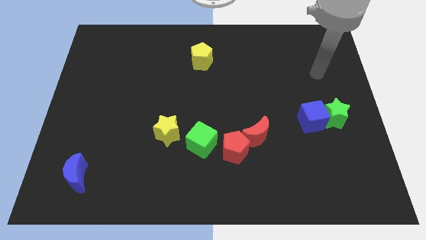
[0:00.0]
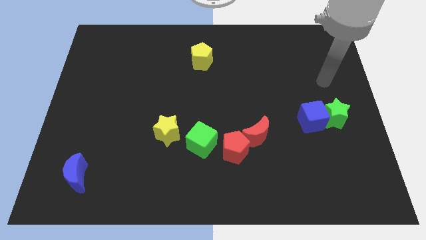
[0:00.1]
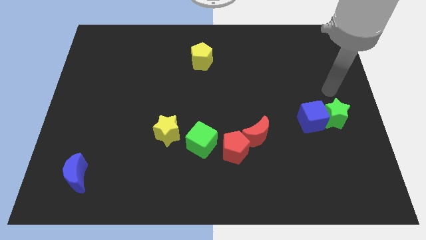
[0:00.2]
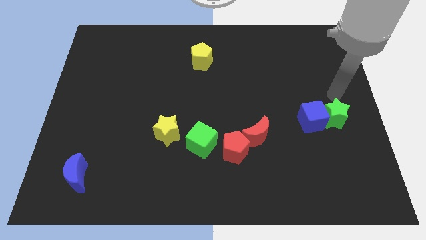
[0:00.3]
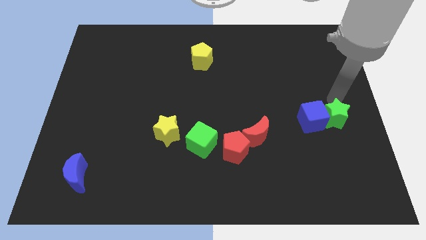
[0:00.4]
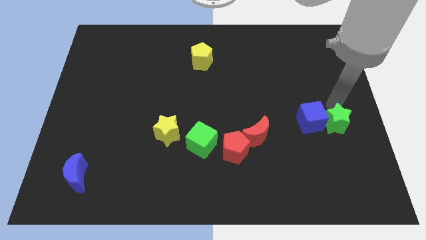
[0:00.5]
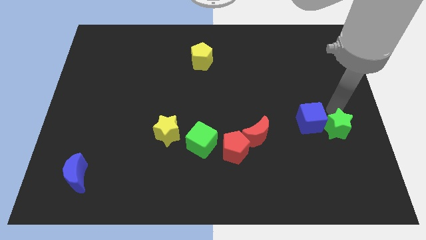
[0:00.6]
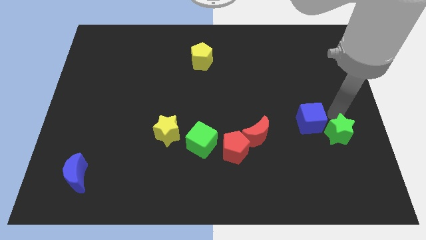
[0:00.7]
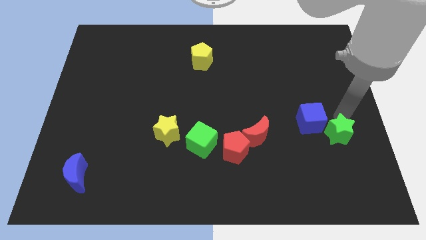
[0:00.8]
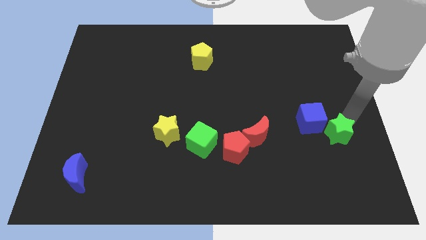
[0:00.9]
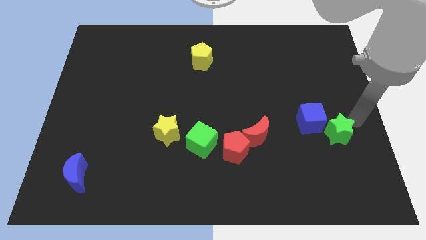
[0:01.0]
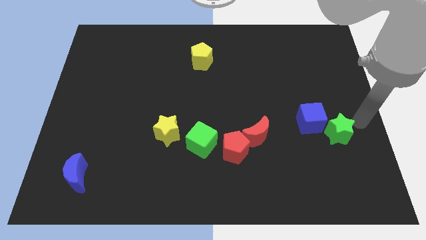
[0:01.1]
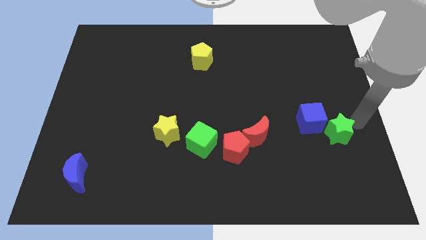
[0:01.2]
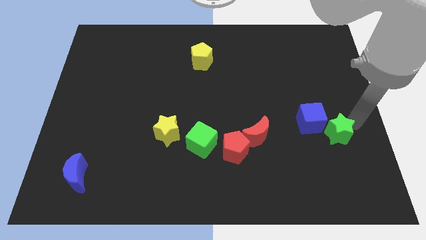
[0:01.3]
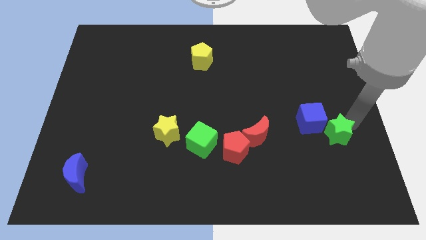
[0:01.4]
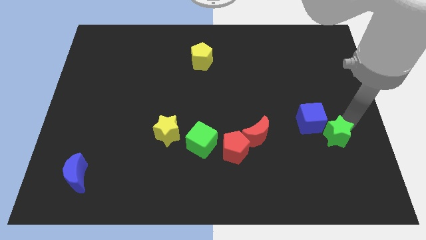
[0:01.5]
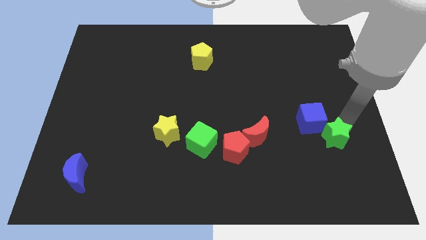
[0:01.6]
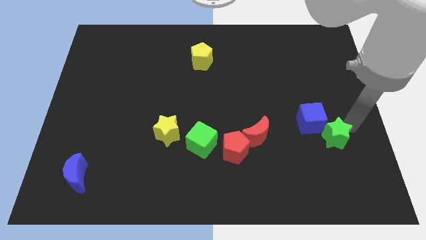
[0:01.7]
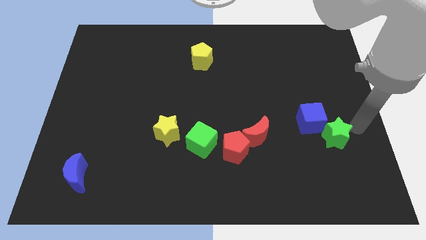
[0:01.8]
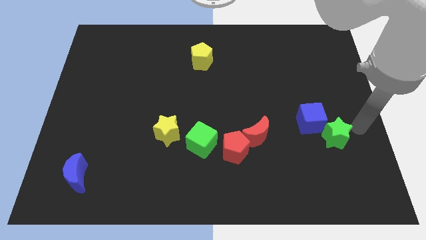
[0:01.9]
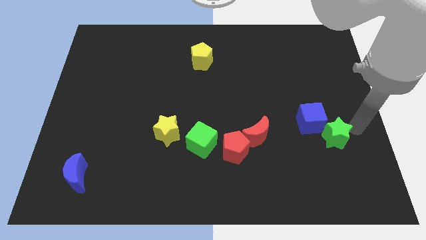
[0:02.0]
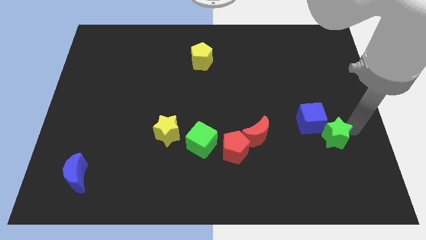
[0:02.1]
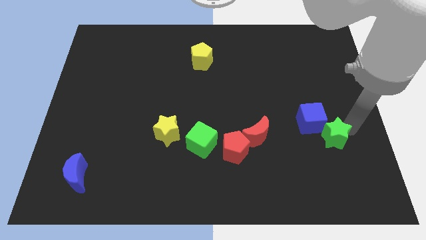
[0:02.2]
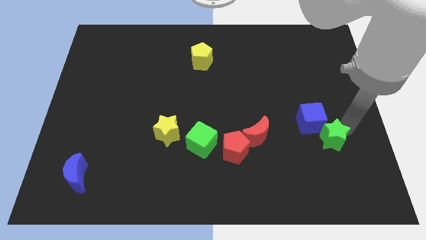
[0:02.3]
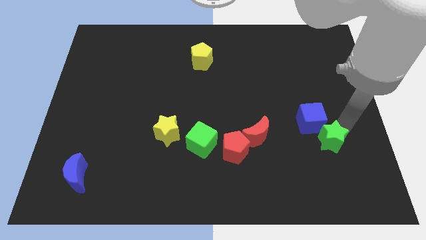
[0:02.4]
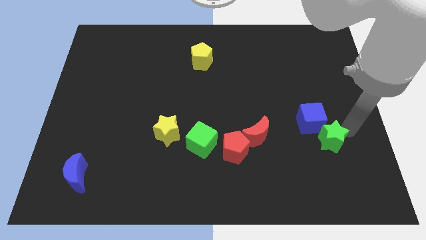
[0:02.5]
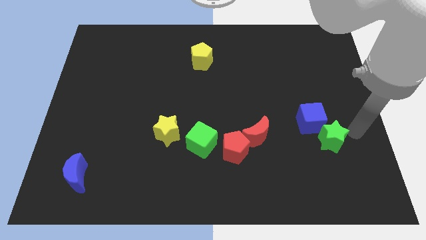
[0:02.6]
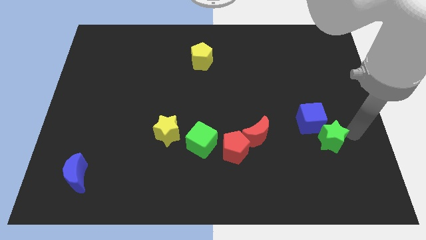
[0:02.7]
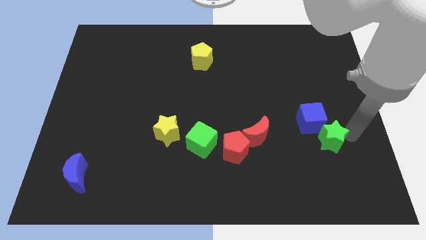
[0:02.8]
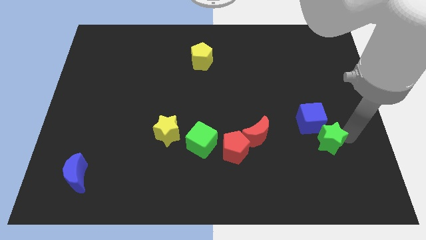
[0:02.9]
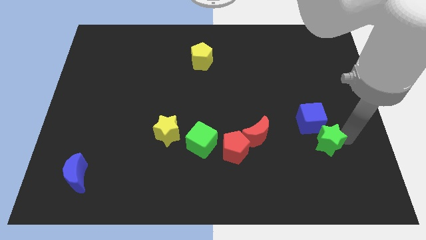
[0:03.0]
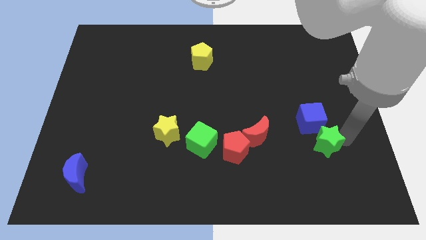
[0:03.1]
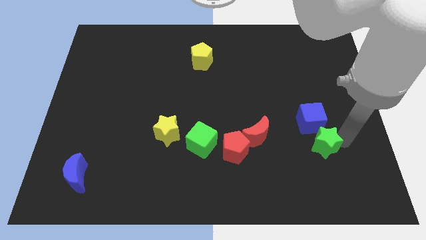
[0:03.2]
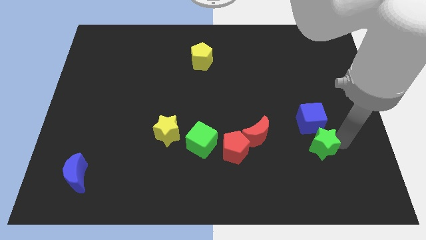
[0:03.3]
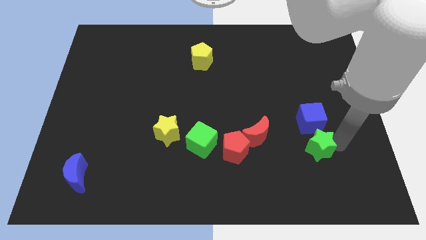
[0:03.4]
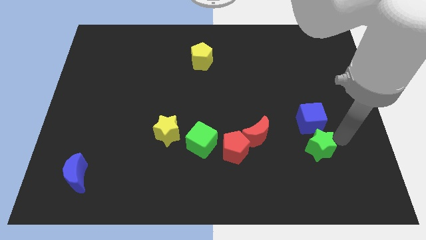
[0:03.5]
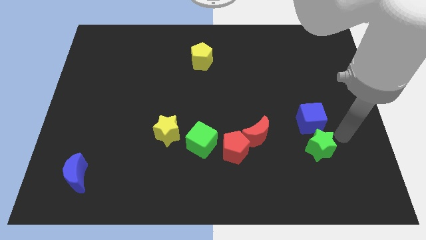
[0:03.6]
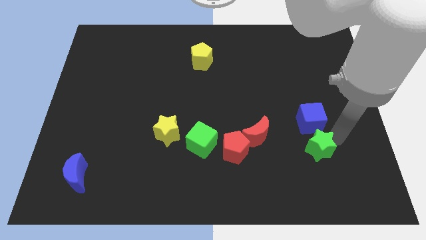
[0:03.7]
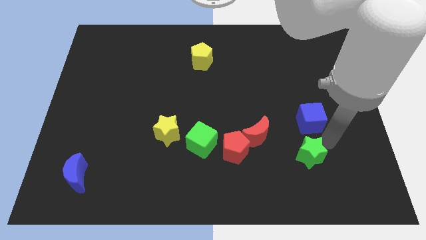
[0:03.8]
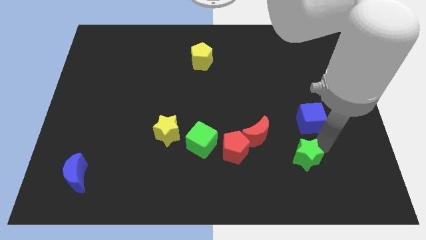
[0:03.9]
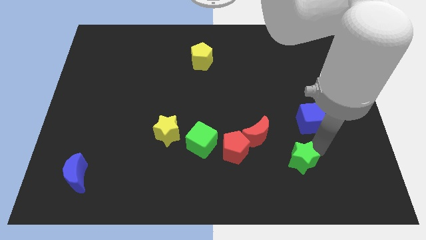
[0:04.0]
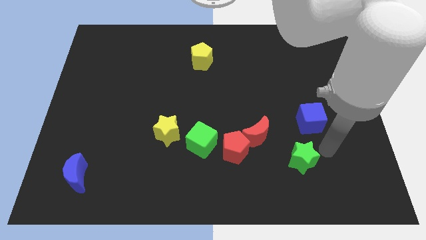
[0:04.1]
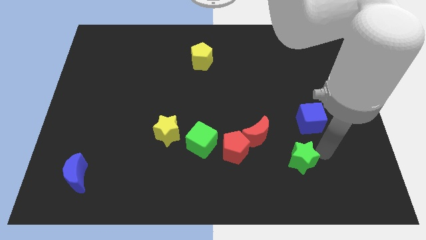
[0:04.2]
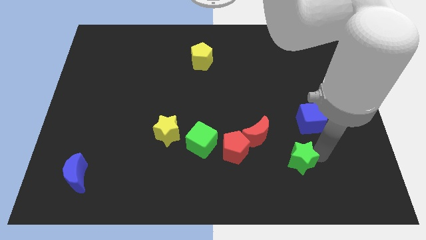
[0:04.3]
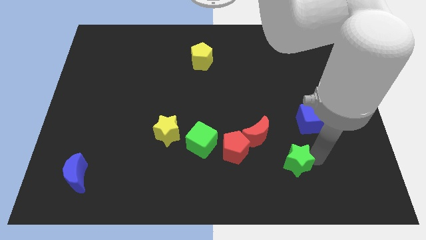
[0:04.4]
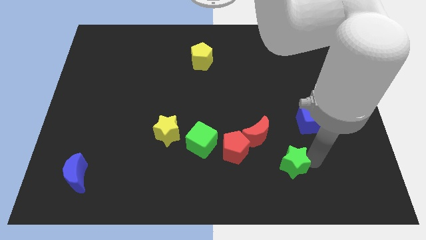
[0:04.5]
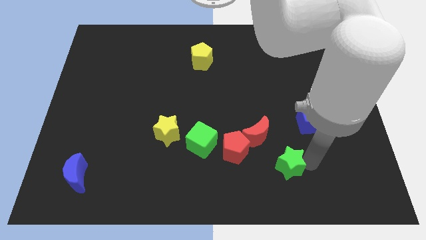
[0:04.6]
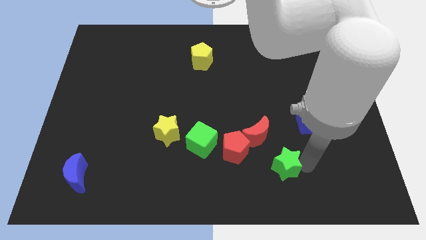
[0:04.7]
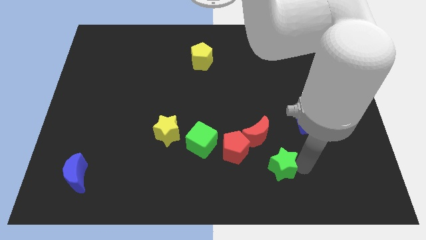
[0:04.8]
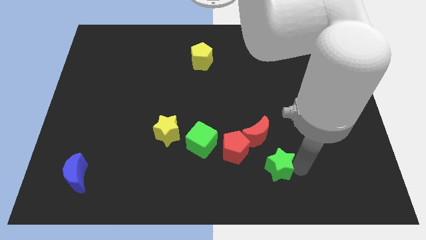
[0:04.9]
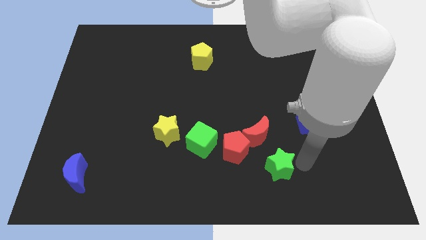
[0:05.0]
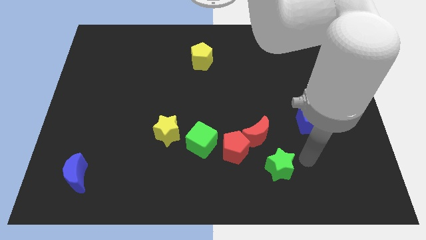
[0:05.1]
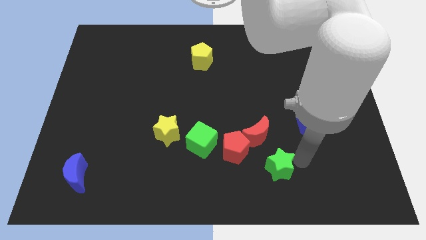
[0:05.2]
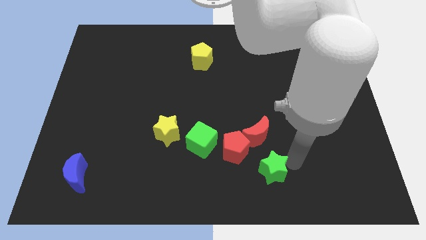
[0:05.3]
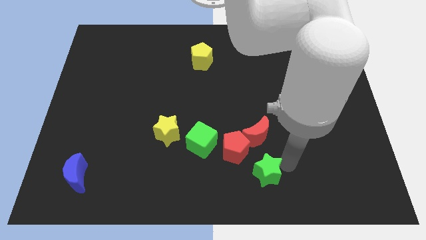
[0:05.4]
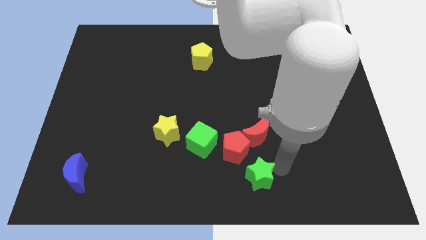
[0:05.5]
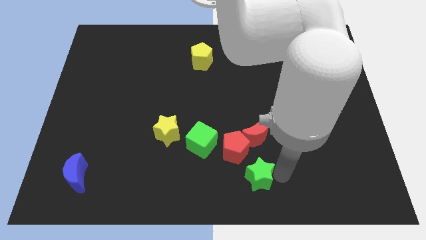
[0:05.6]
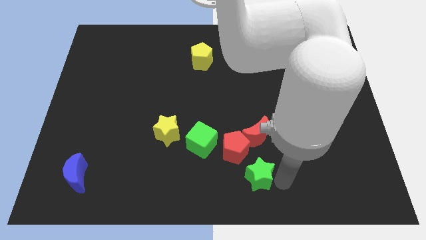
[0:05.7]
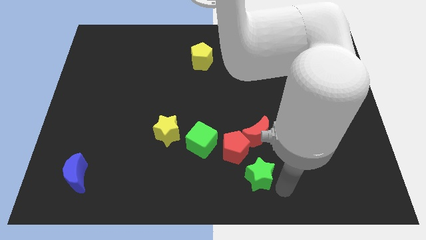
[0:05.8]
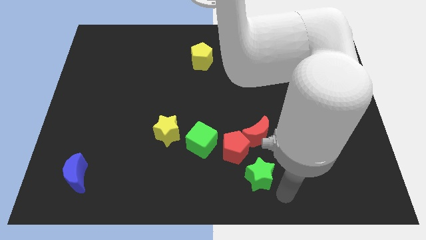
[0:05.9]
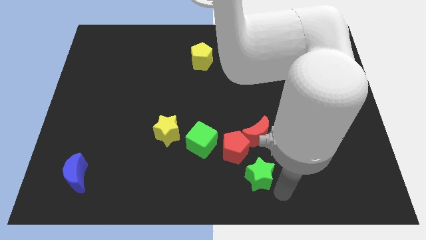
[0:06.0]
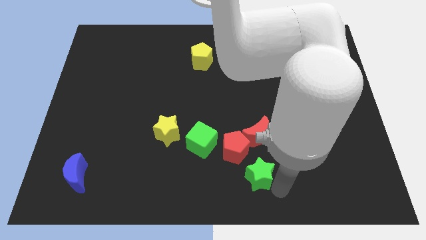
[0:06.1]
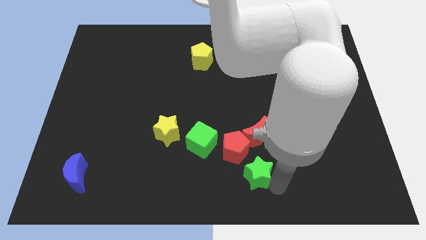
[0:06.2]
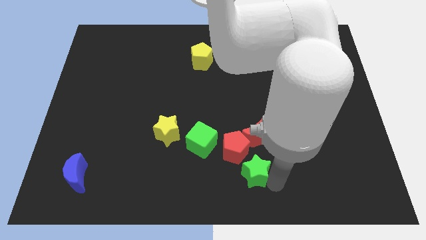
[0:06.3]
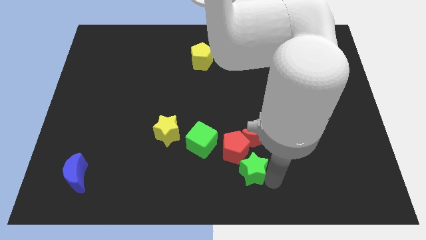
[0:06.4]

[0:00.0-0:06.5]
slide the green star diagonally down and to the left of the red moon

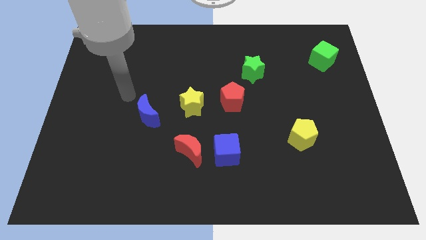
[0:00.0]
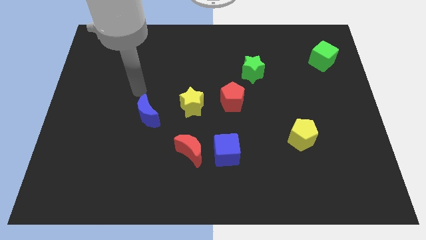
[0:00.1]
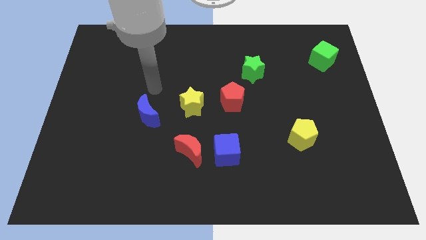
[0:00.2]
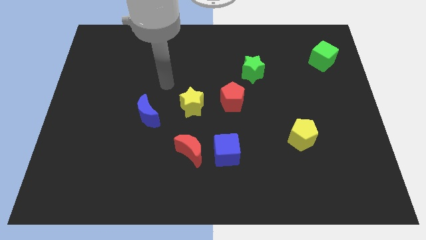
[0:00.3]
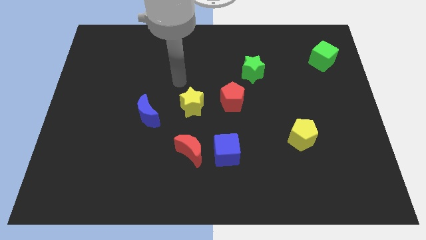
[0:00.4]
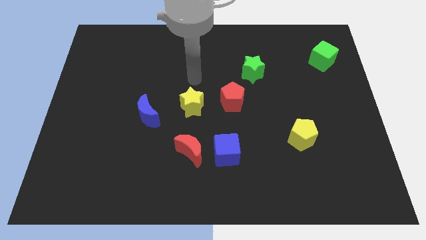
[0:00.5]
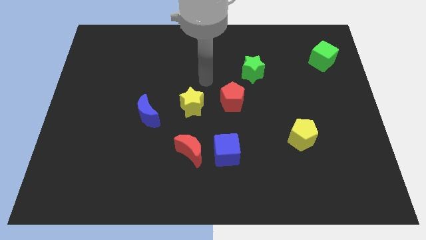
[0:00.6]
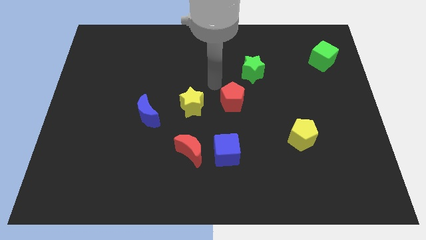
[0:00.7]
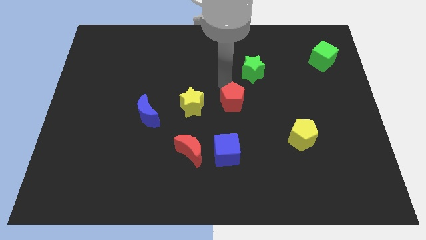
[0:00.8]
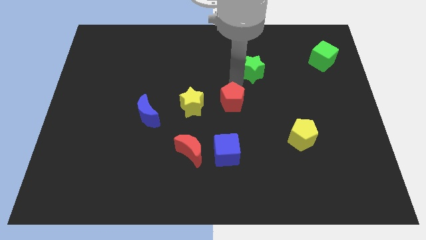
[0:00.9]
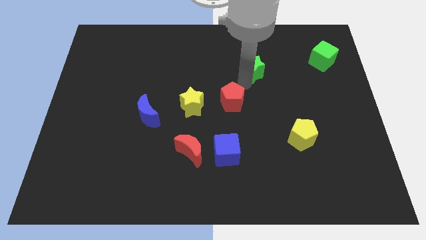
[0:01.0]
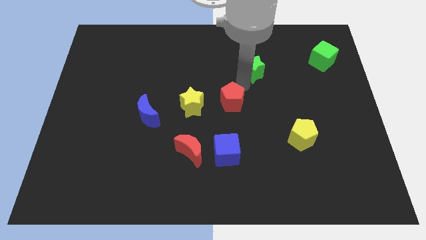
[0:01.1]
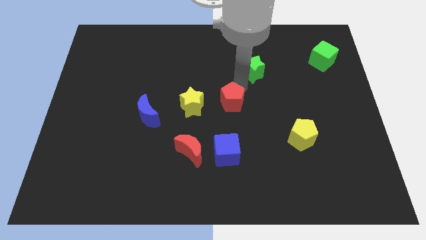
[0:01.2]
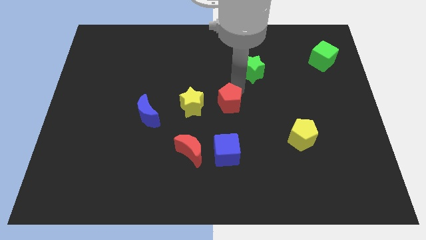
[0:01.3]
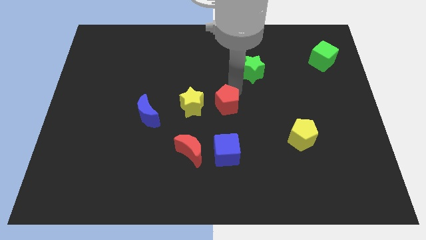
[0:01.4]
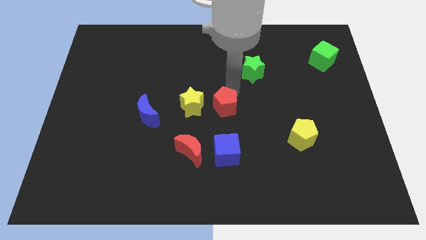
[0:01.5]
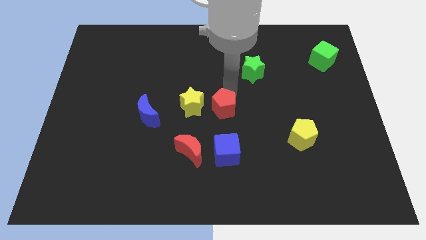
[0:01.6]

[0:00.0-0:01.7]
put the red pentagon diagonally down and to the right of the yellow star

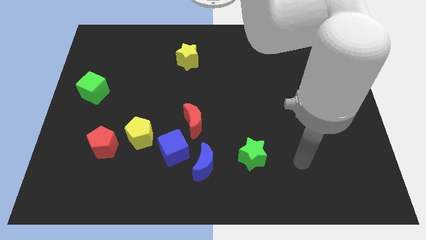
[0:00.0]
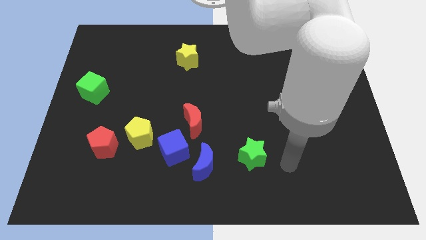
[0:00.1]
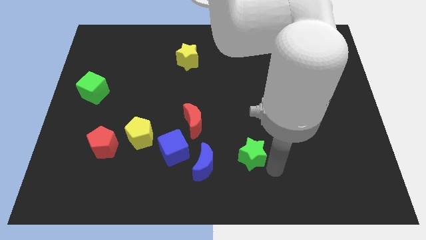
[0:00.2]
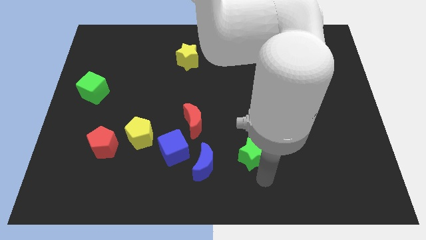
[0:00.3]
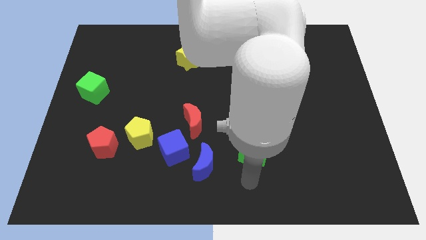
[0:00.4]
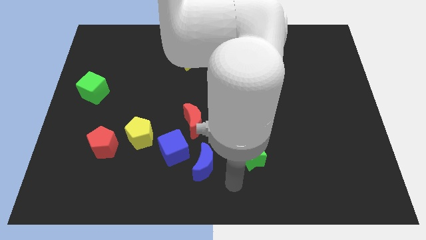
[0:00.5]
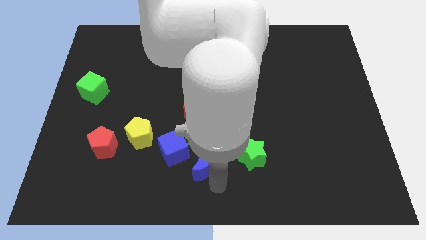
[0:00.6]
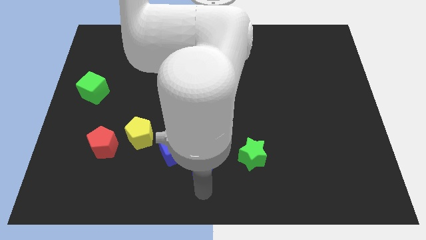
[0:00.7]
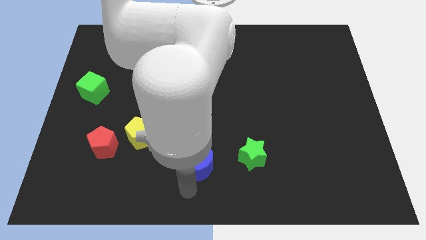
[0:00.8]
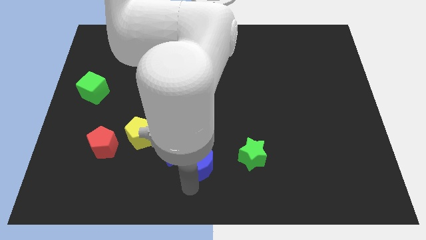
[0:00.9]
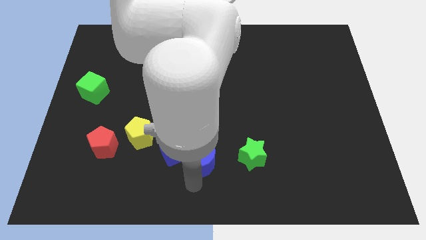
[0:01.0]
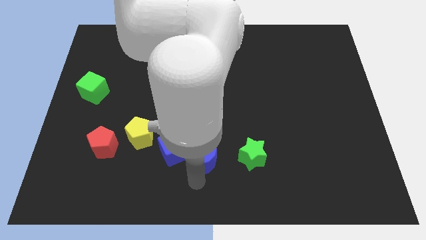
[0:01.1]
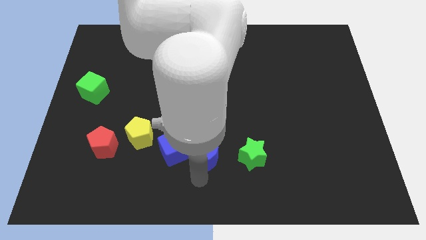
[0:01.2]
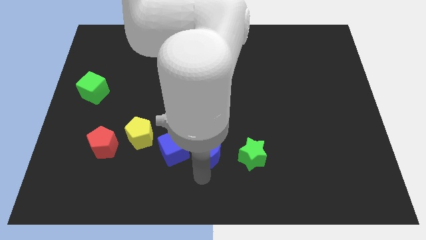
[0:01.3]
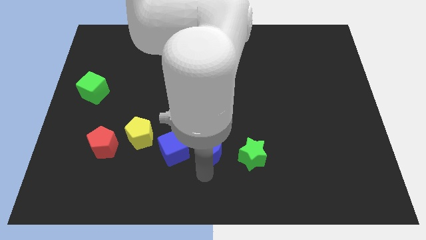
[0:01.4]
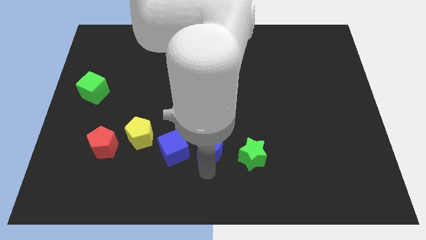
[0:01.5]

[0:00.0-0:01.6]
slide the blue moon to the top left side of the green star
